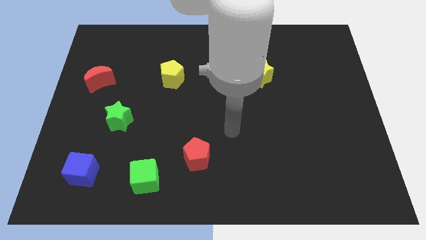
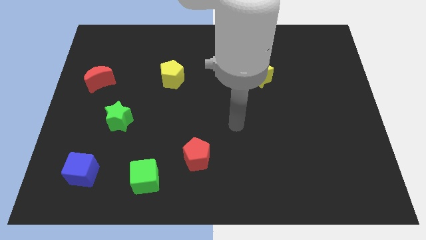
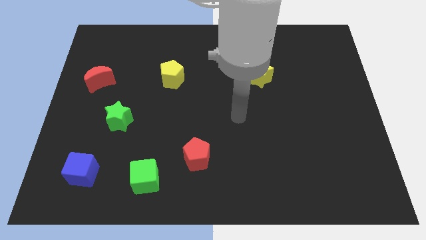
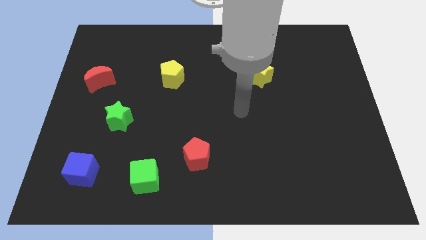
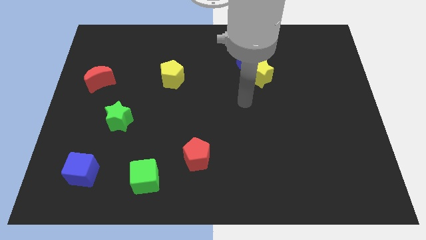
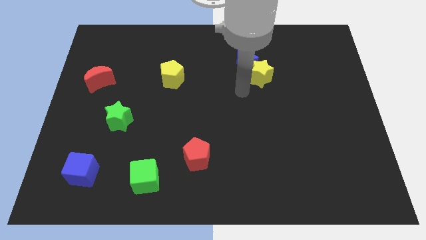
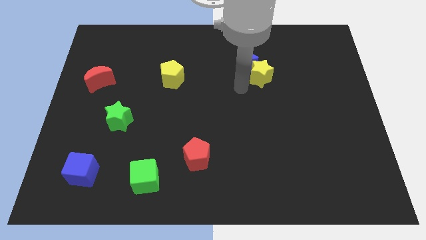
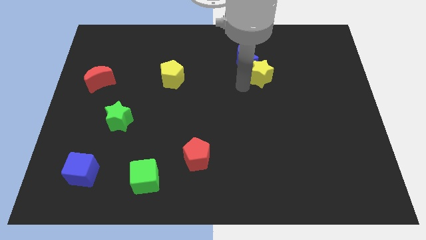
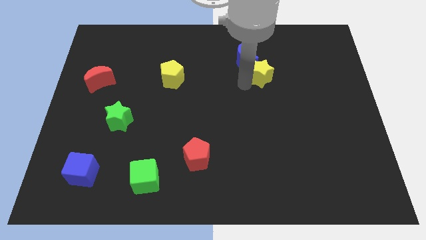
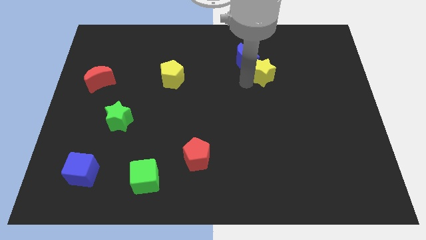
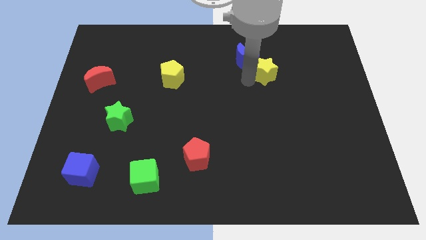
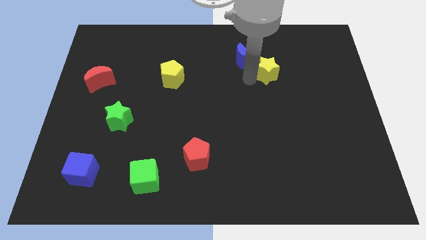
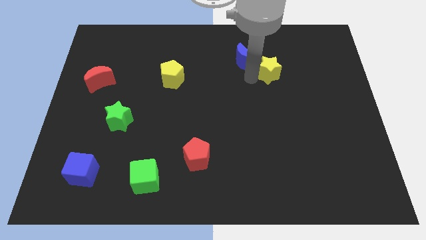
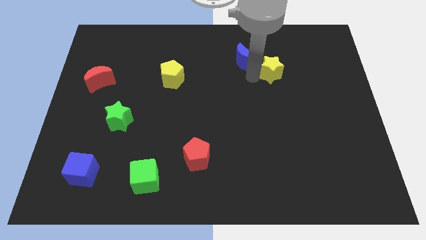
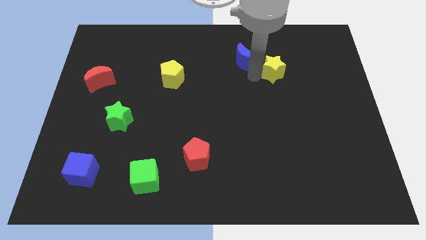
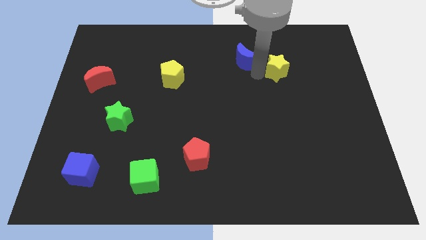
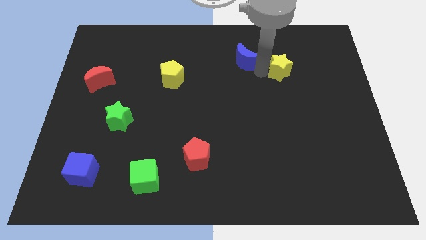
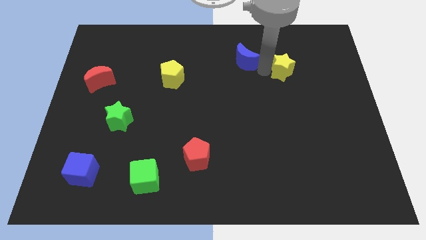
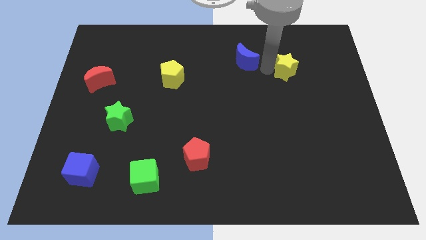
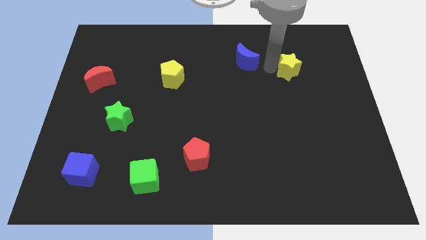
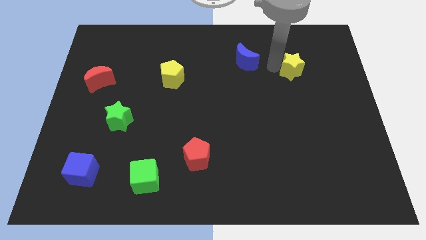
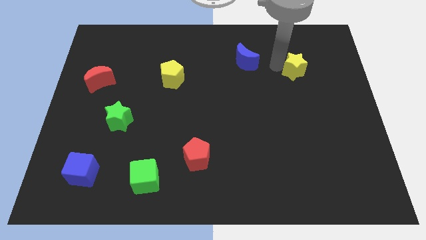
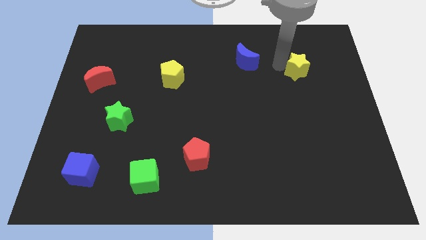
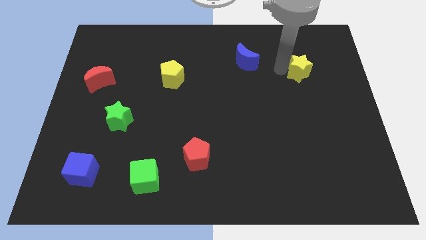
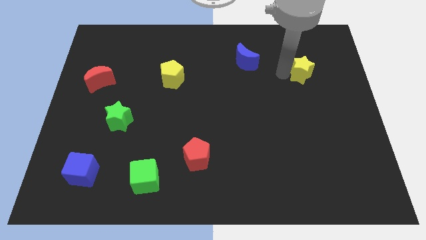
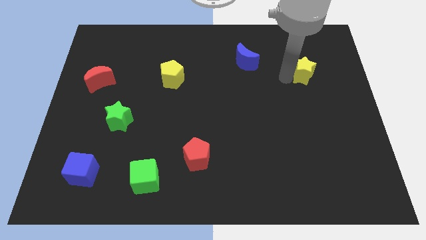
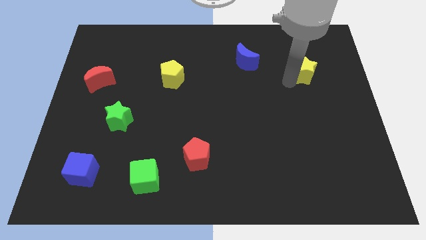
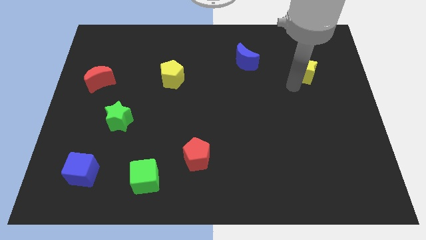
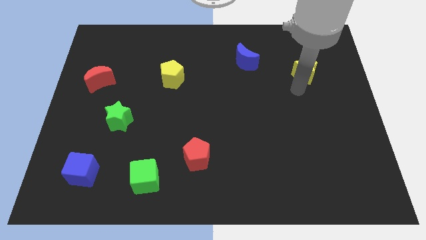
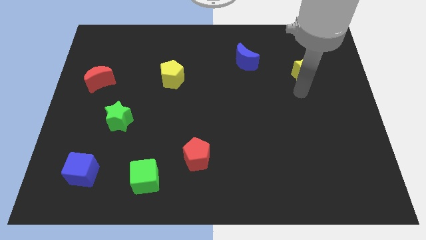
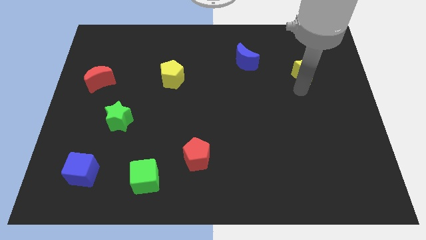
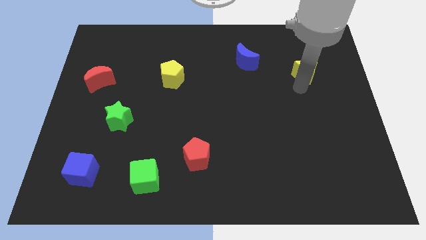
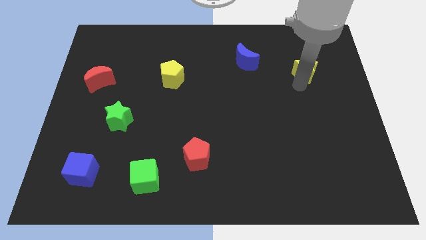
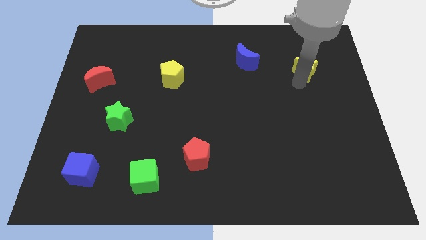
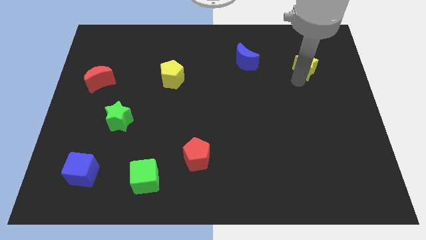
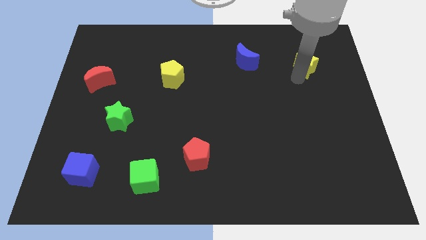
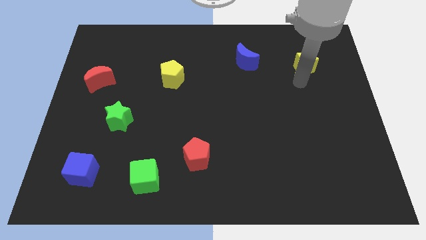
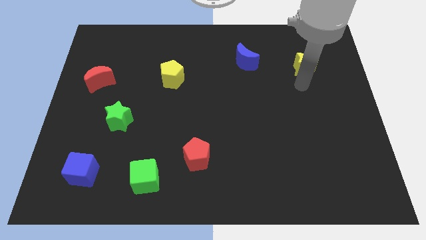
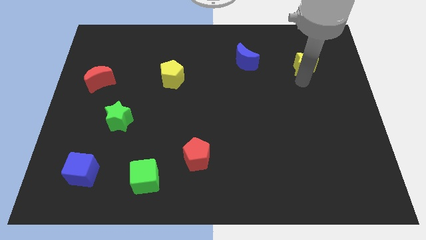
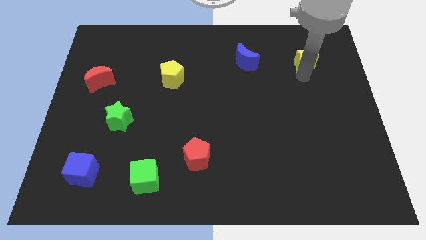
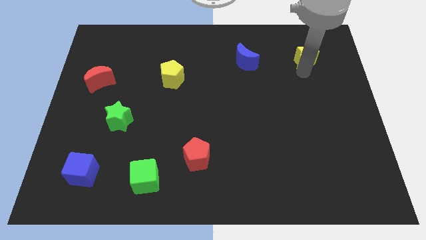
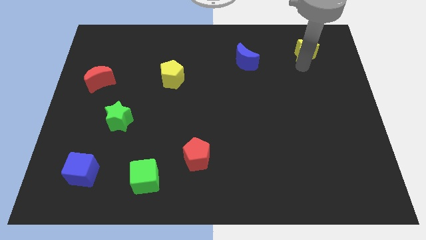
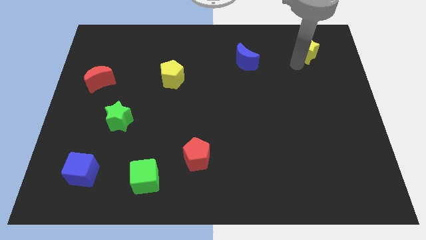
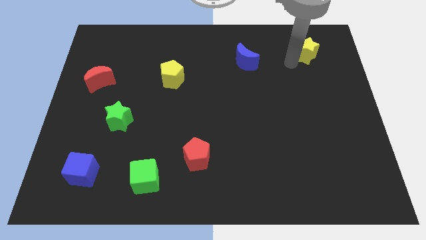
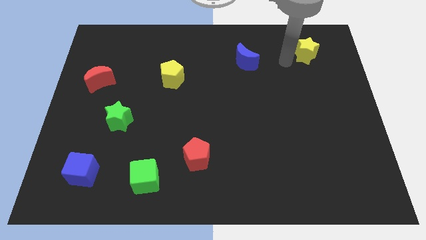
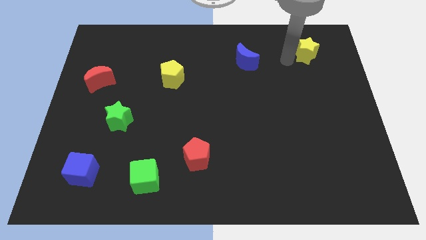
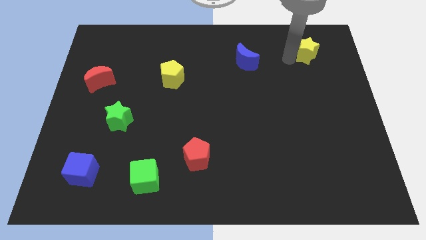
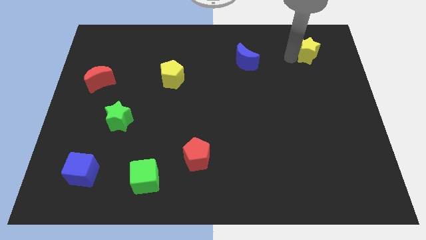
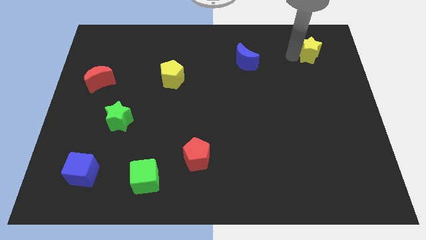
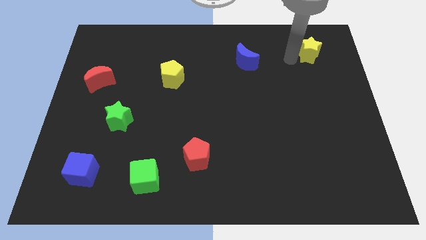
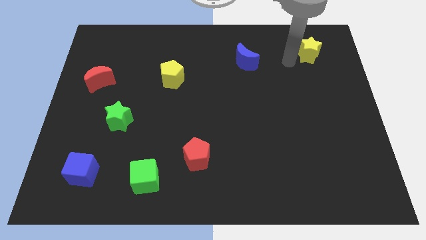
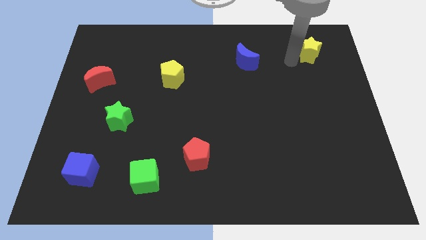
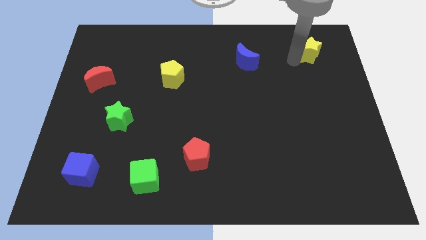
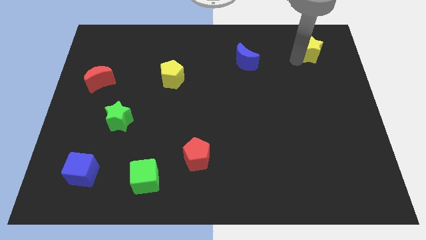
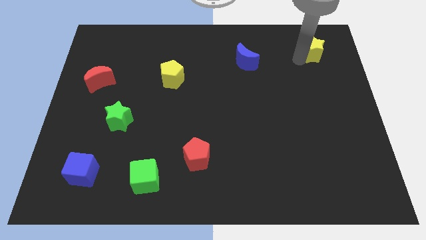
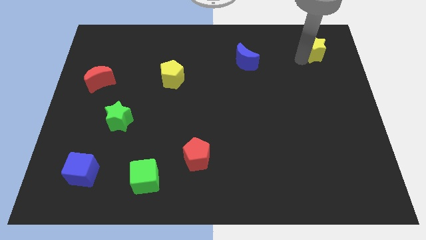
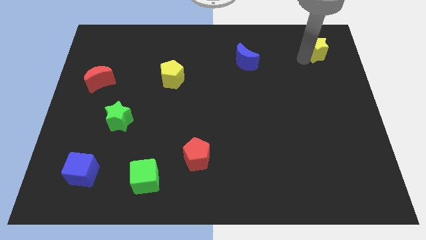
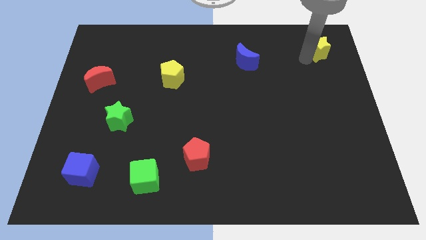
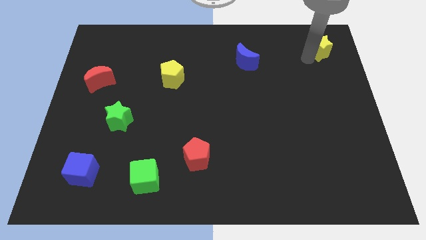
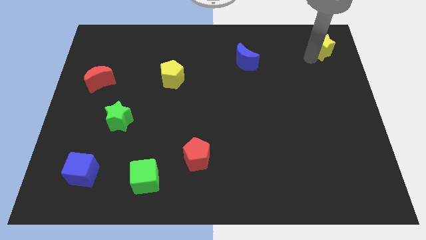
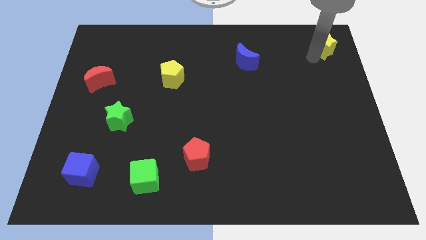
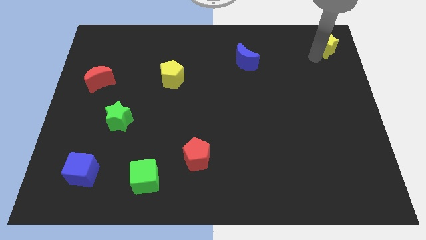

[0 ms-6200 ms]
push the yellow star to the top right
